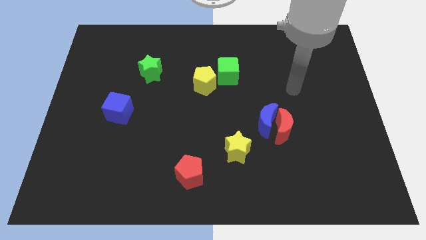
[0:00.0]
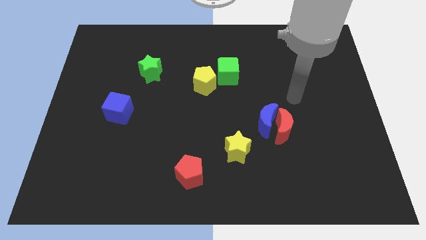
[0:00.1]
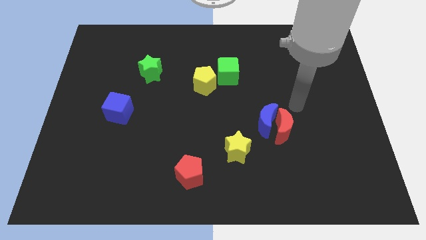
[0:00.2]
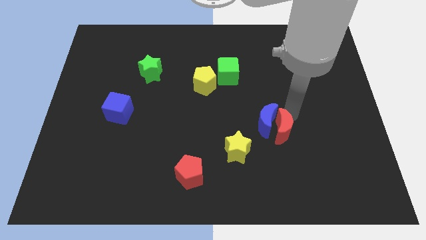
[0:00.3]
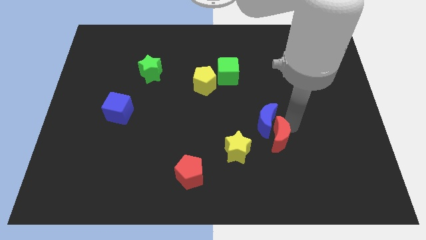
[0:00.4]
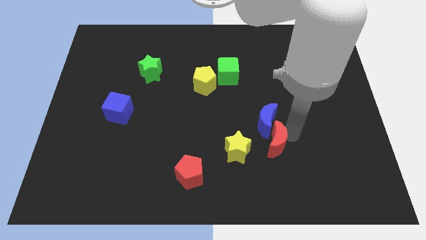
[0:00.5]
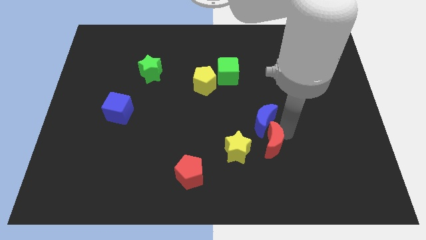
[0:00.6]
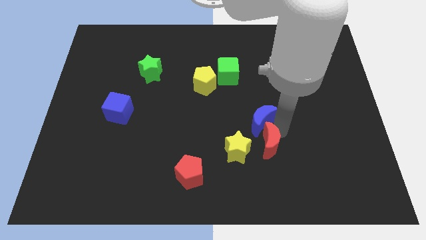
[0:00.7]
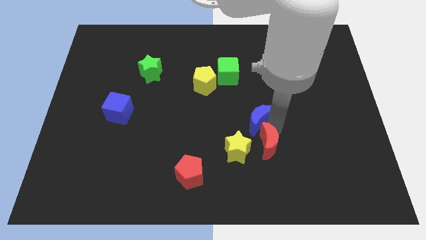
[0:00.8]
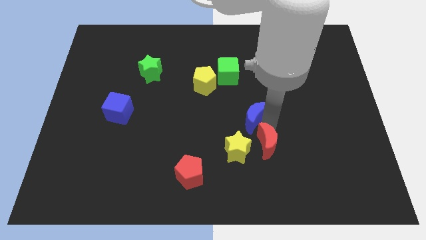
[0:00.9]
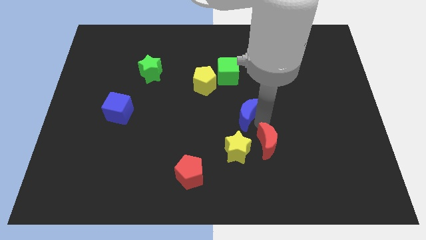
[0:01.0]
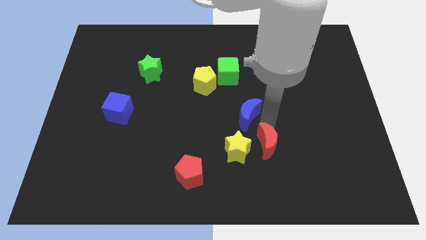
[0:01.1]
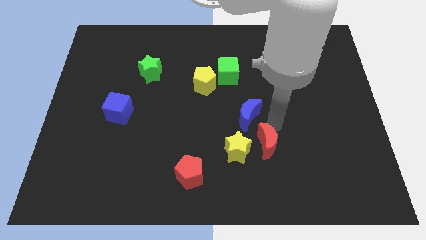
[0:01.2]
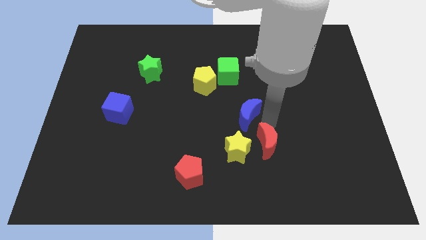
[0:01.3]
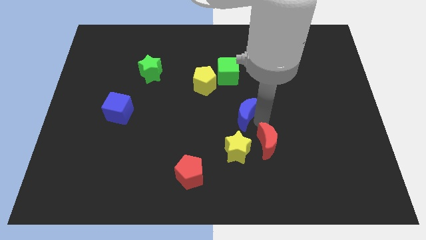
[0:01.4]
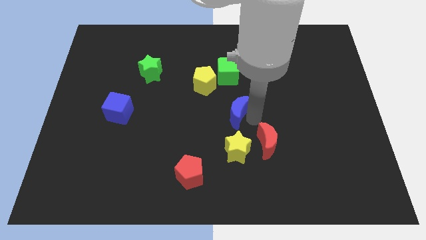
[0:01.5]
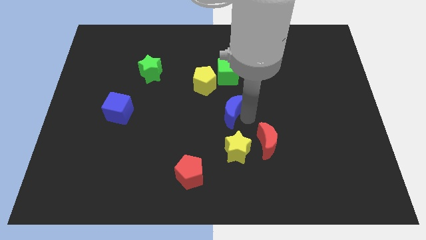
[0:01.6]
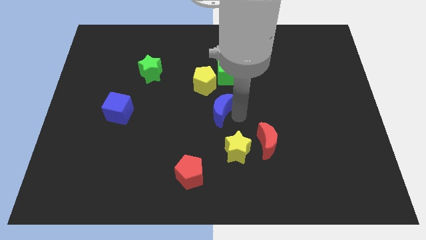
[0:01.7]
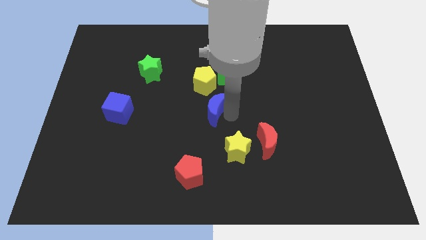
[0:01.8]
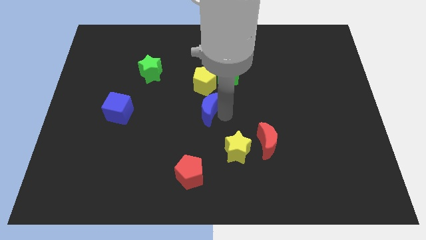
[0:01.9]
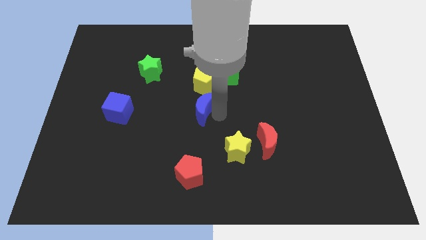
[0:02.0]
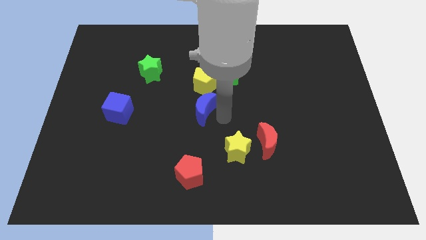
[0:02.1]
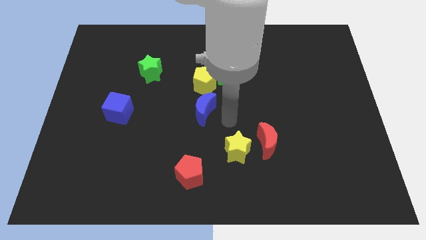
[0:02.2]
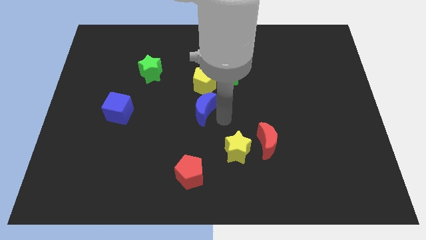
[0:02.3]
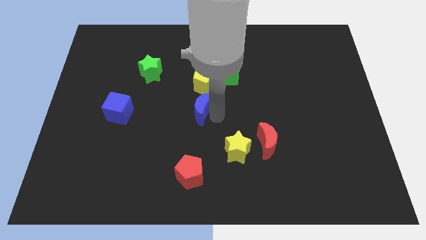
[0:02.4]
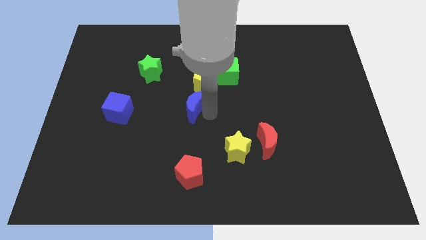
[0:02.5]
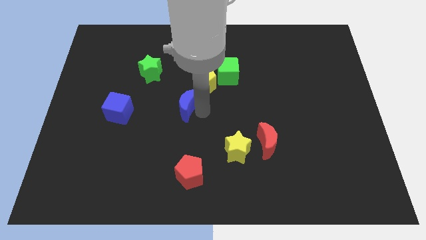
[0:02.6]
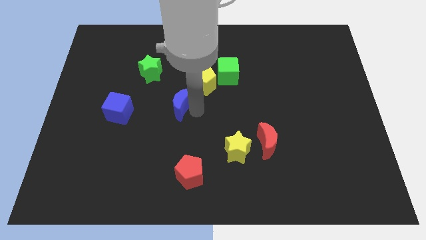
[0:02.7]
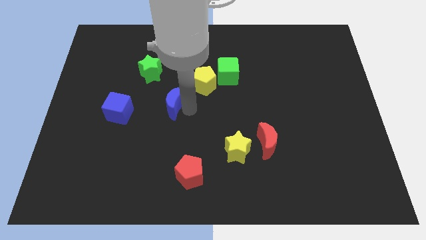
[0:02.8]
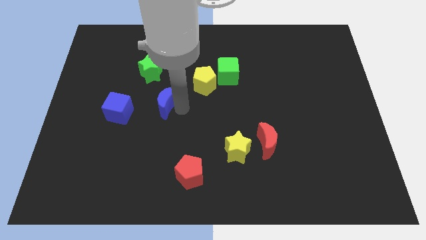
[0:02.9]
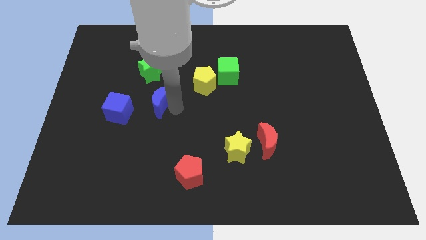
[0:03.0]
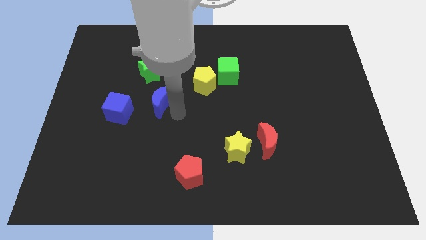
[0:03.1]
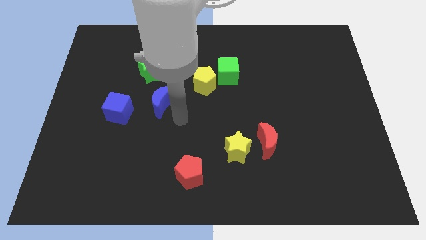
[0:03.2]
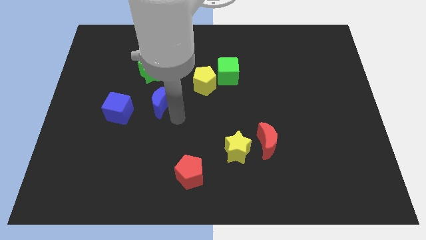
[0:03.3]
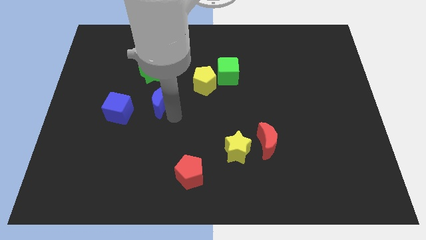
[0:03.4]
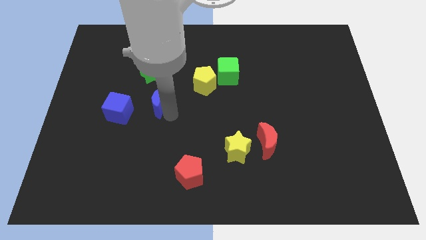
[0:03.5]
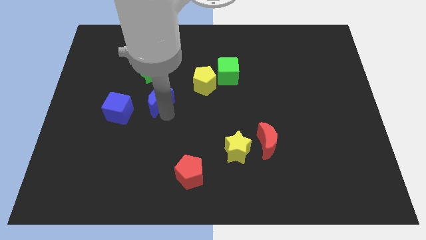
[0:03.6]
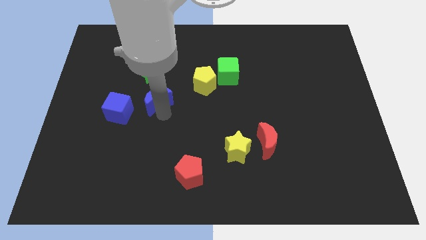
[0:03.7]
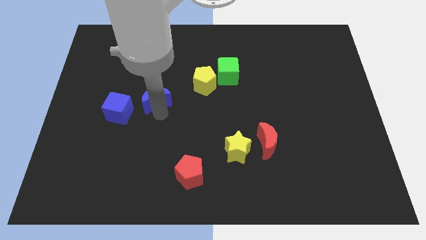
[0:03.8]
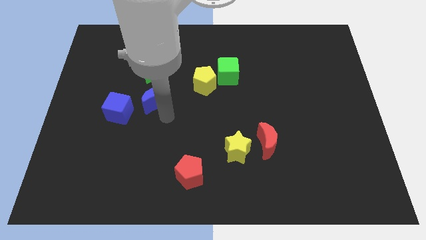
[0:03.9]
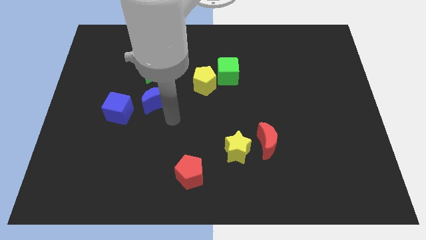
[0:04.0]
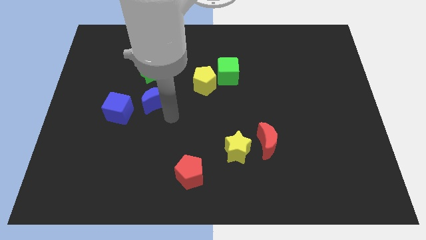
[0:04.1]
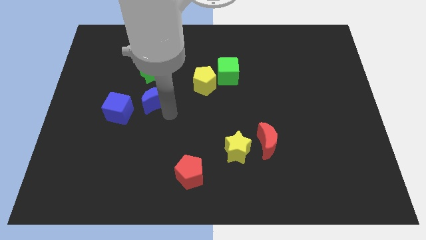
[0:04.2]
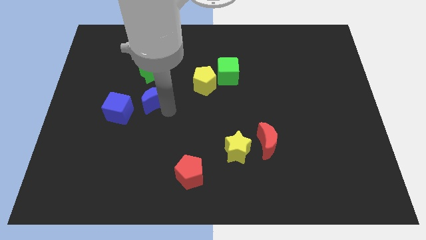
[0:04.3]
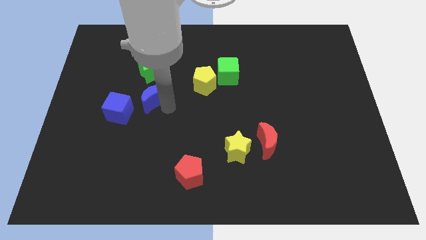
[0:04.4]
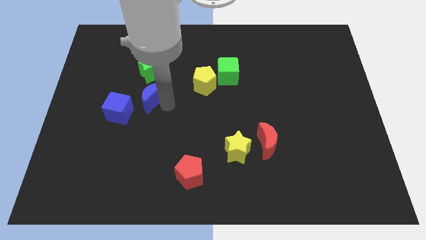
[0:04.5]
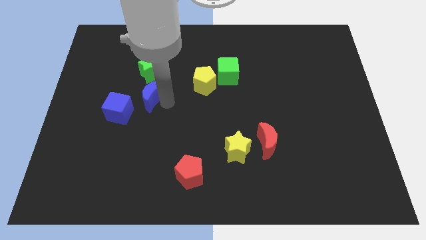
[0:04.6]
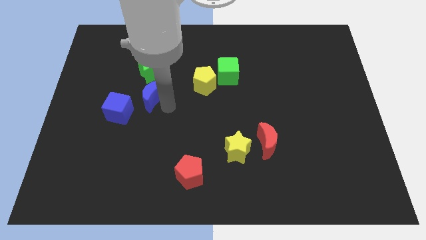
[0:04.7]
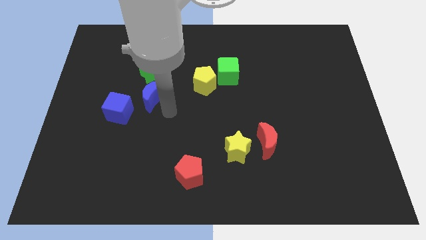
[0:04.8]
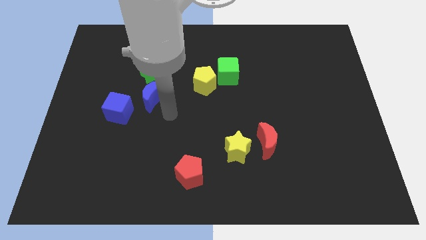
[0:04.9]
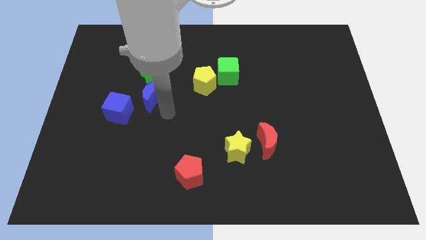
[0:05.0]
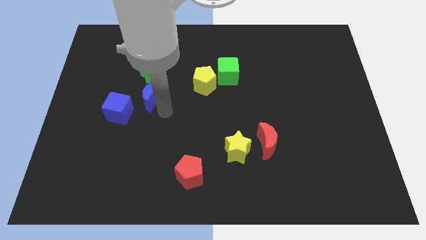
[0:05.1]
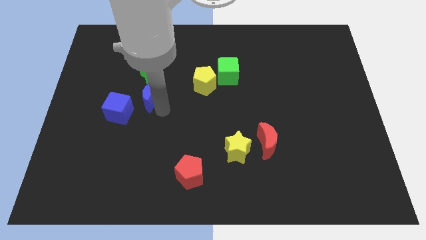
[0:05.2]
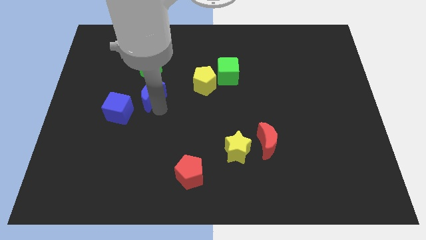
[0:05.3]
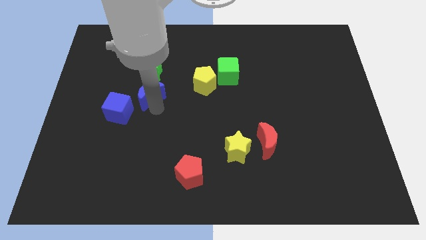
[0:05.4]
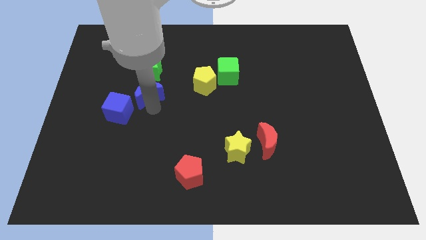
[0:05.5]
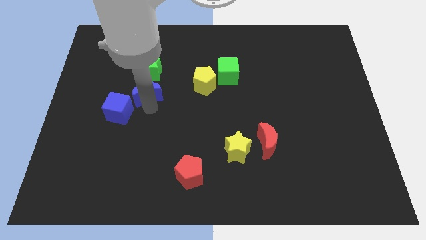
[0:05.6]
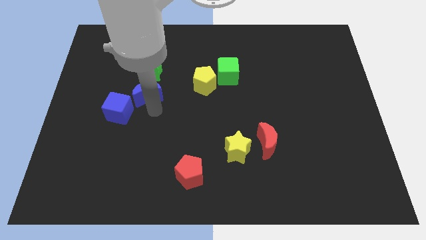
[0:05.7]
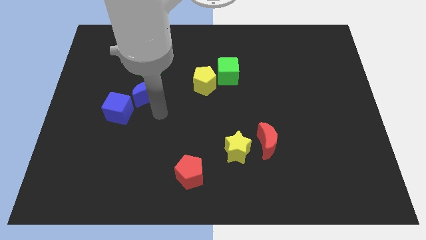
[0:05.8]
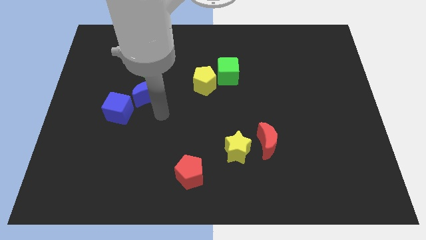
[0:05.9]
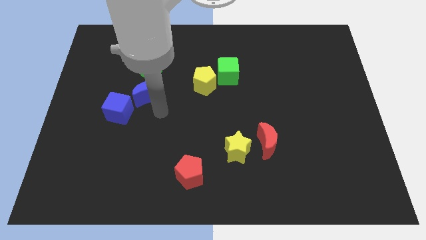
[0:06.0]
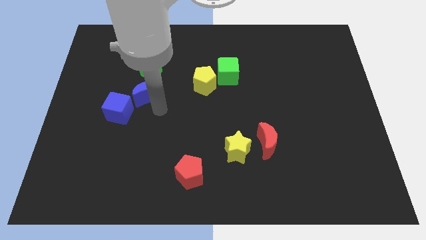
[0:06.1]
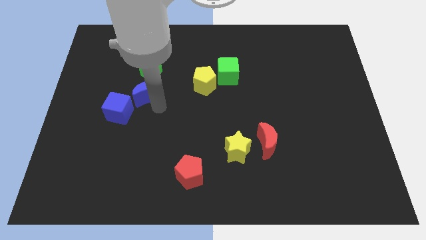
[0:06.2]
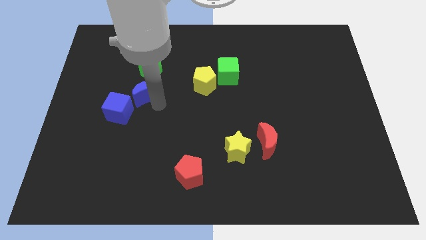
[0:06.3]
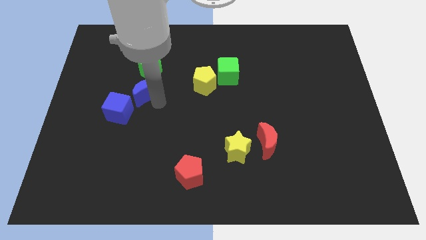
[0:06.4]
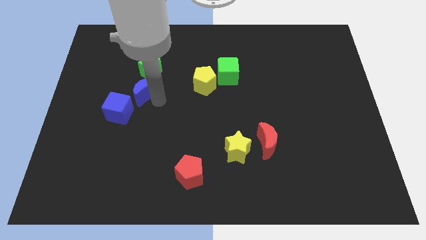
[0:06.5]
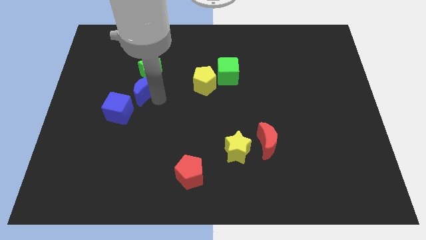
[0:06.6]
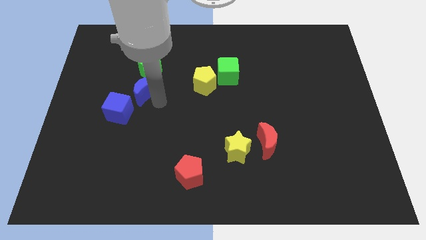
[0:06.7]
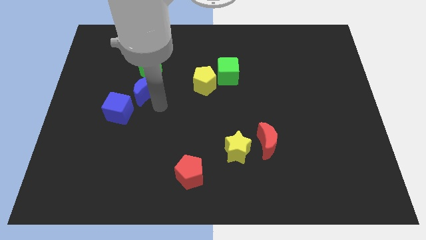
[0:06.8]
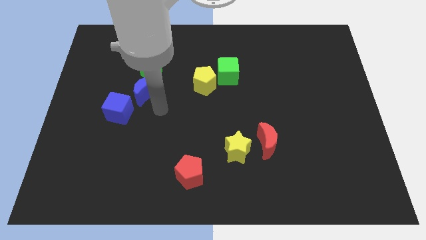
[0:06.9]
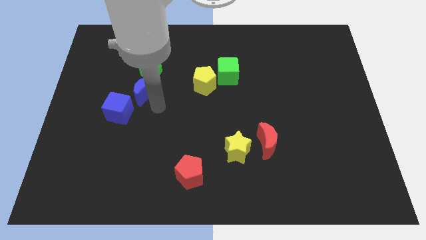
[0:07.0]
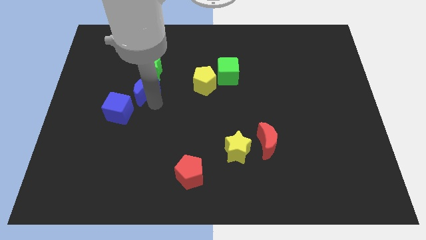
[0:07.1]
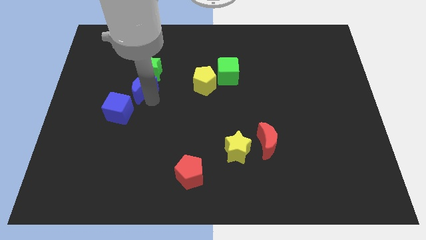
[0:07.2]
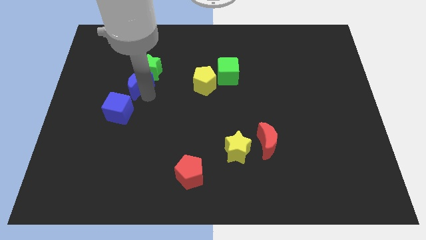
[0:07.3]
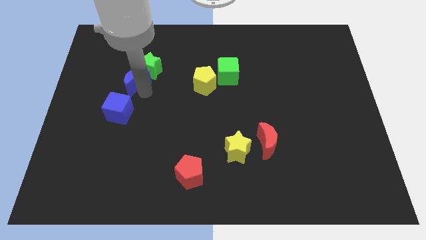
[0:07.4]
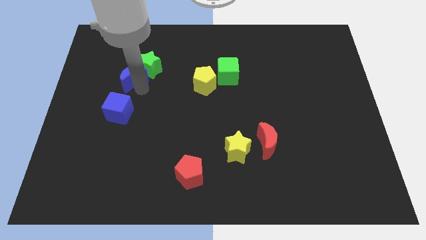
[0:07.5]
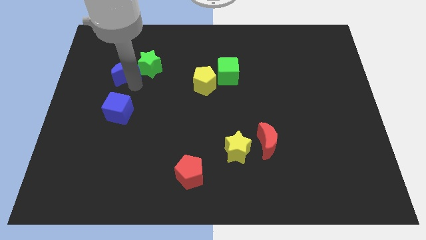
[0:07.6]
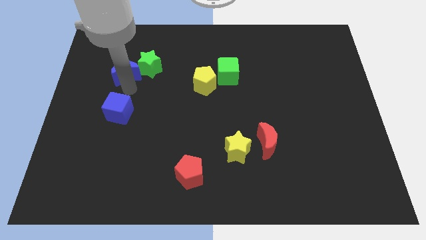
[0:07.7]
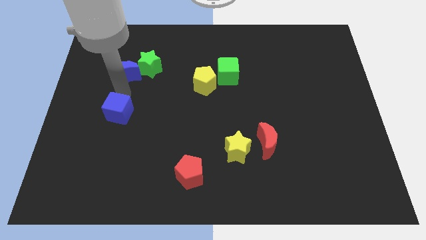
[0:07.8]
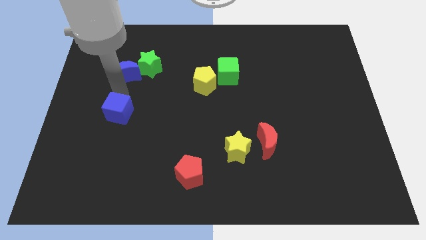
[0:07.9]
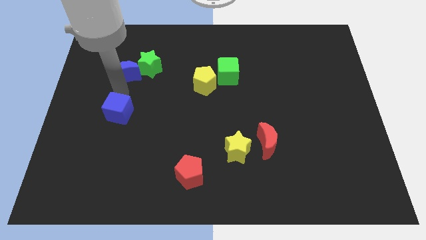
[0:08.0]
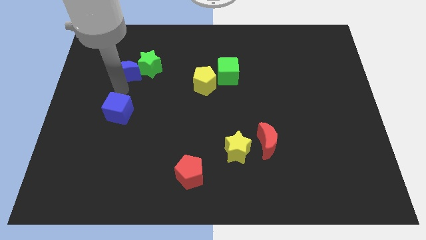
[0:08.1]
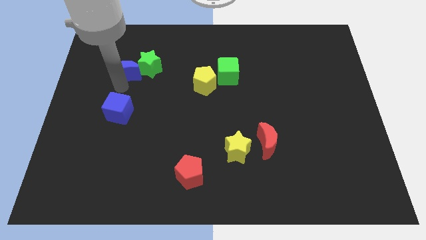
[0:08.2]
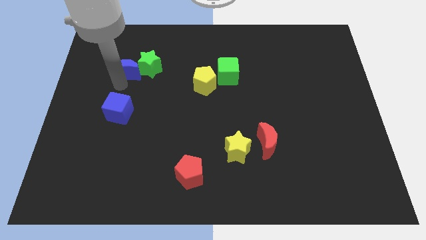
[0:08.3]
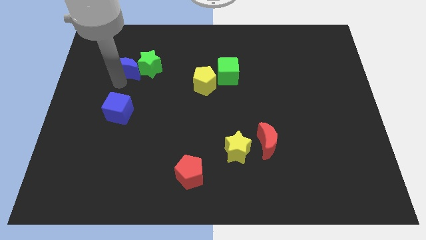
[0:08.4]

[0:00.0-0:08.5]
slide the blue moon to the top left side of the green star
